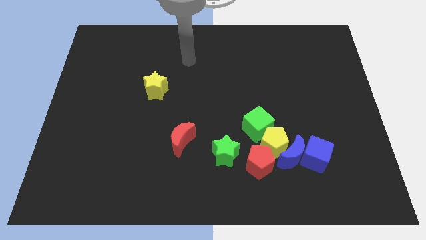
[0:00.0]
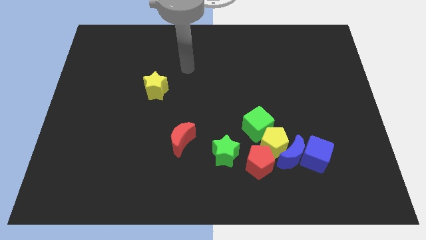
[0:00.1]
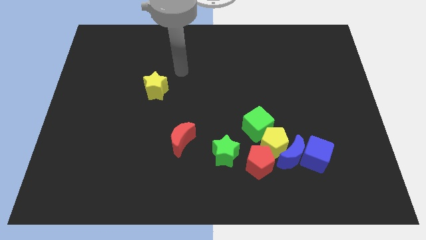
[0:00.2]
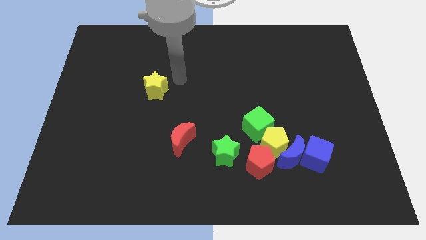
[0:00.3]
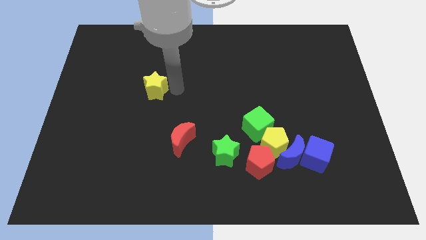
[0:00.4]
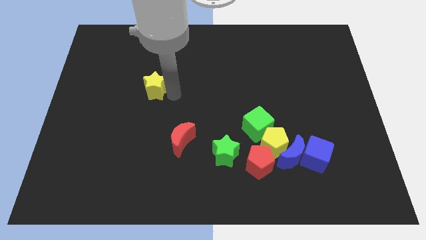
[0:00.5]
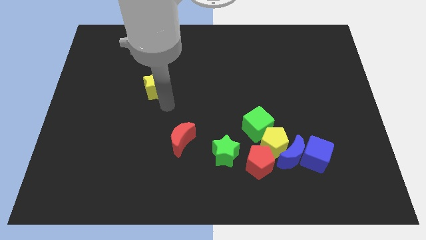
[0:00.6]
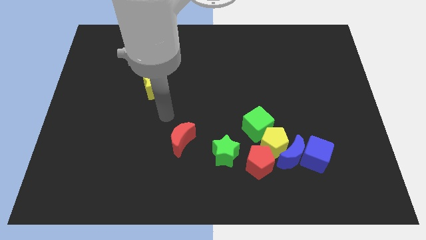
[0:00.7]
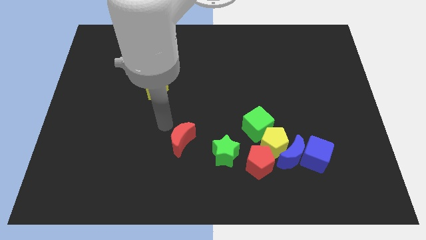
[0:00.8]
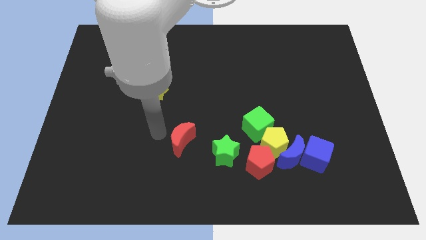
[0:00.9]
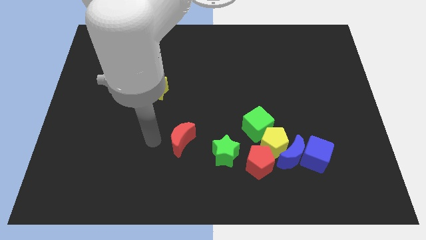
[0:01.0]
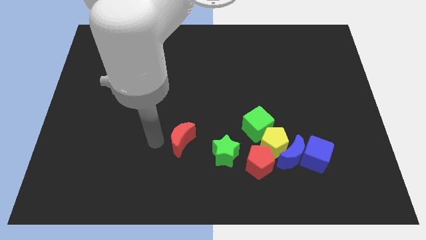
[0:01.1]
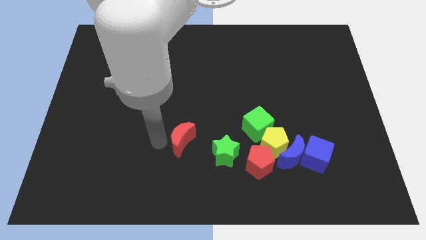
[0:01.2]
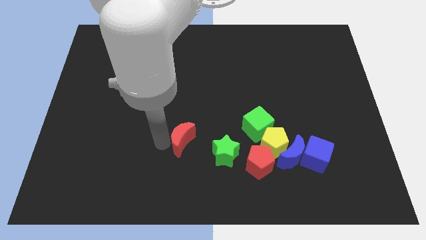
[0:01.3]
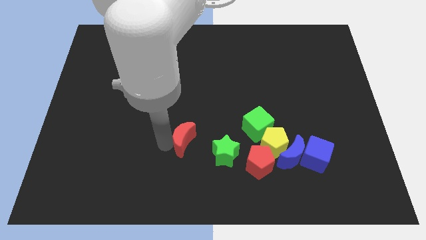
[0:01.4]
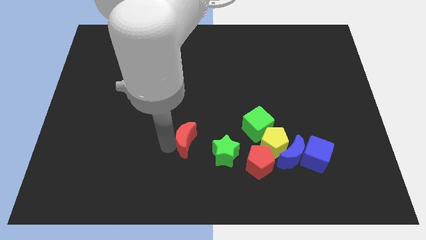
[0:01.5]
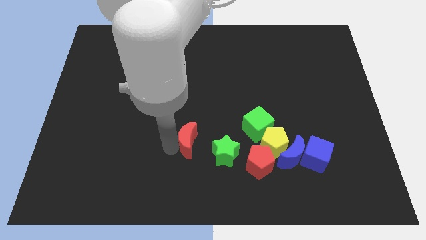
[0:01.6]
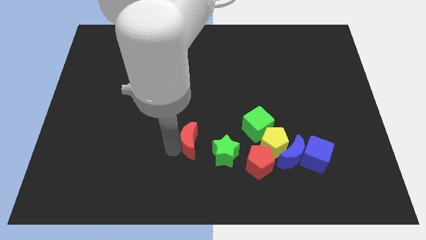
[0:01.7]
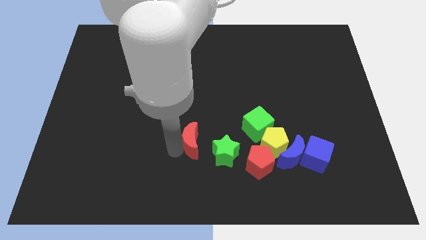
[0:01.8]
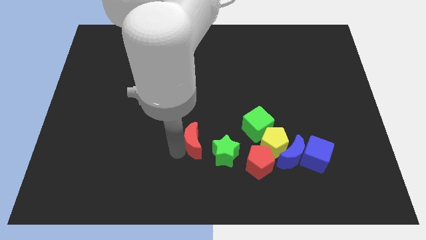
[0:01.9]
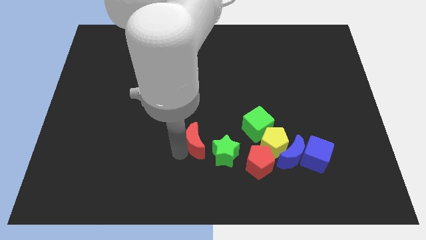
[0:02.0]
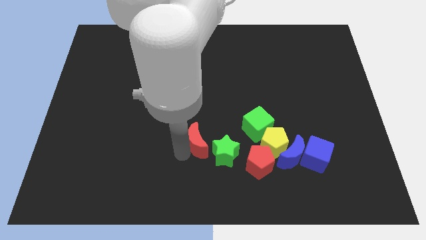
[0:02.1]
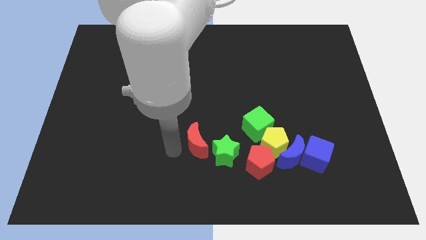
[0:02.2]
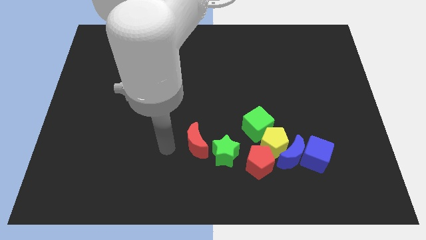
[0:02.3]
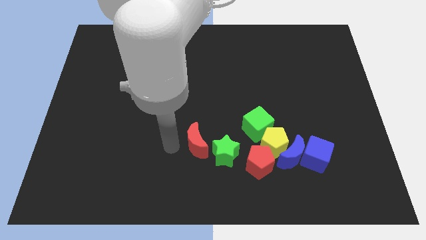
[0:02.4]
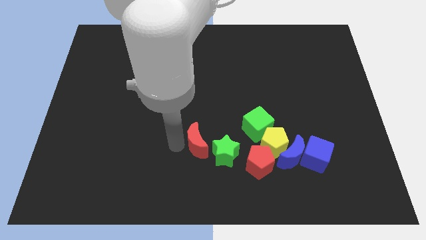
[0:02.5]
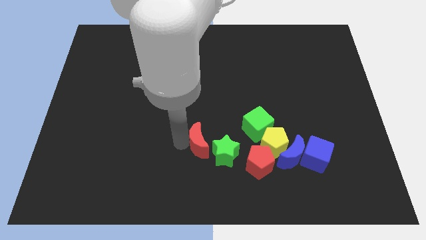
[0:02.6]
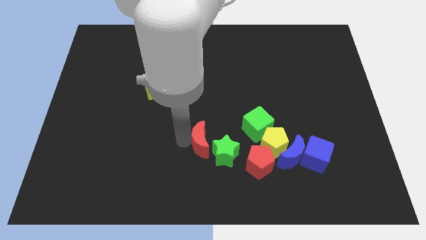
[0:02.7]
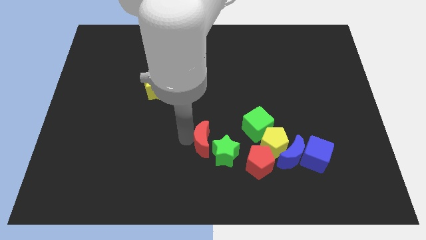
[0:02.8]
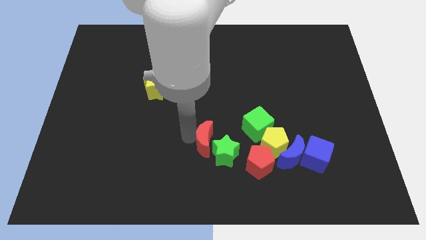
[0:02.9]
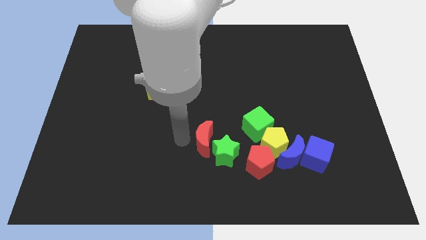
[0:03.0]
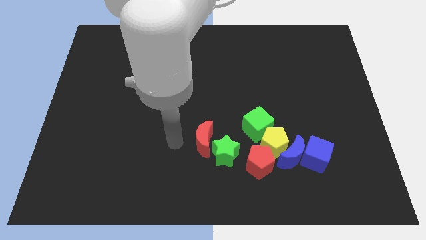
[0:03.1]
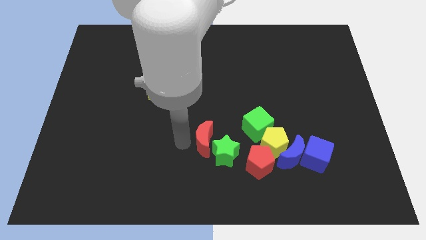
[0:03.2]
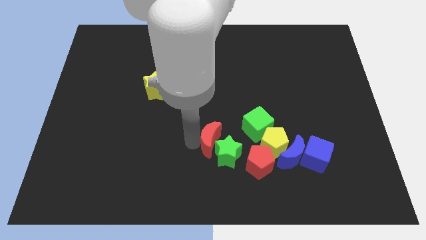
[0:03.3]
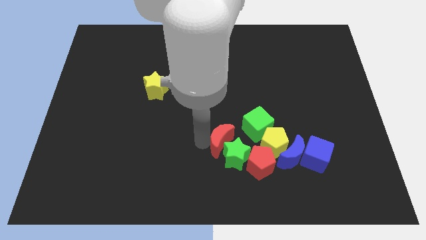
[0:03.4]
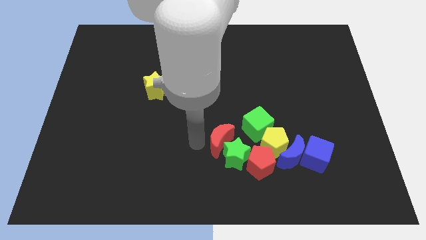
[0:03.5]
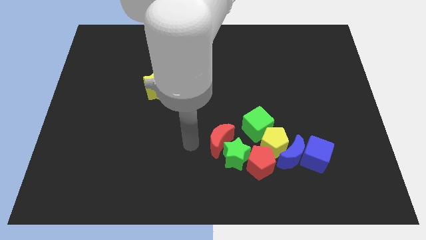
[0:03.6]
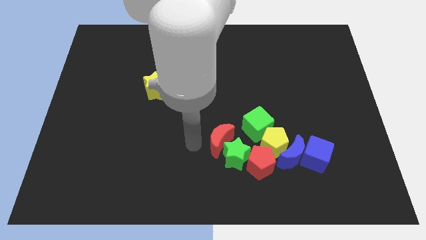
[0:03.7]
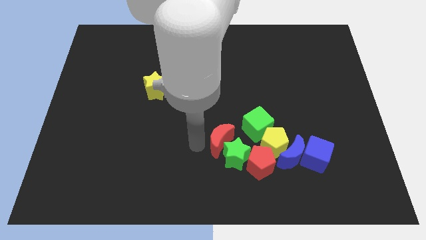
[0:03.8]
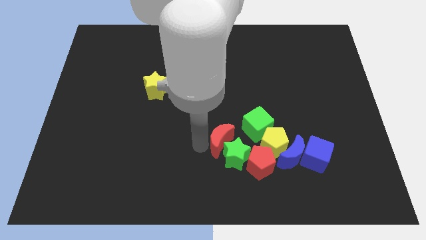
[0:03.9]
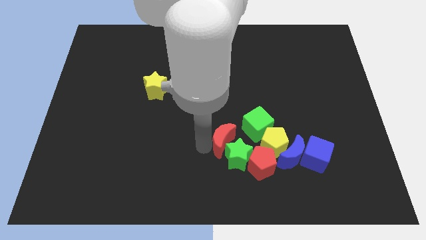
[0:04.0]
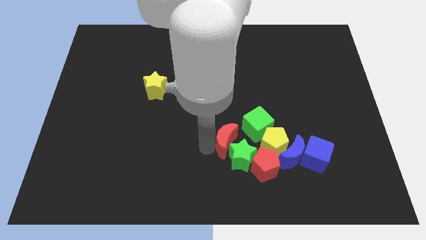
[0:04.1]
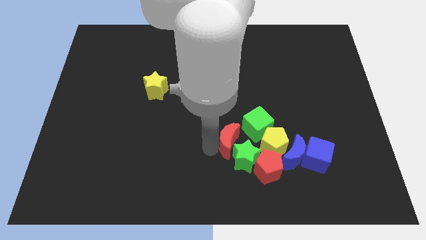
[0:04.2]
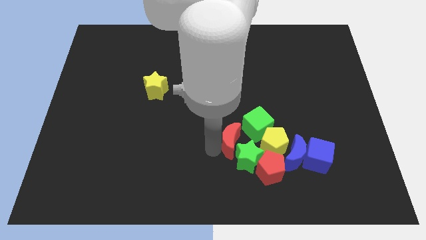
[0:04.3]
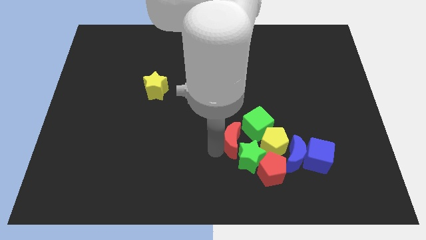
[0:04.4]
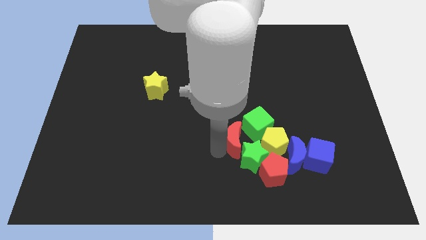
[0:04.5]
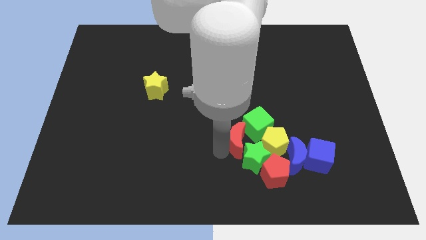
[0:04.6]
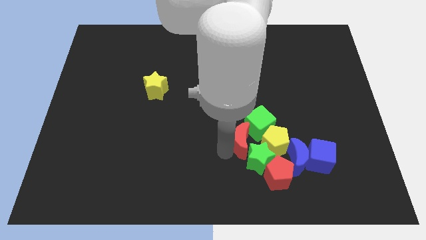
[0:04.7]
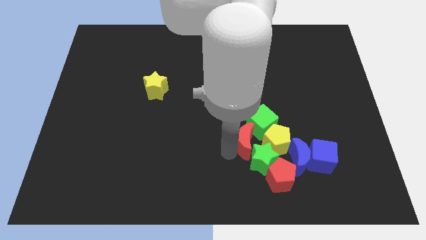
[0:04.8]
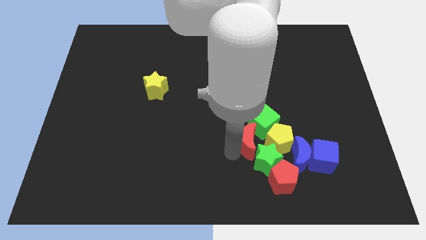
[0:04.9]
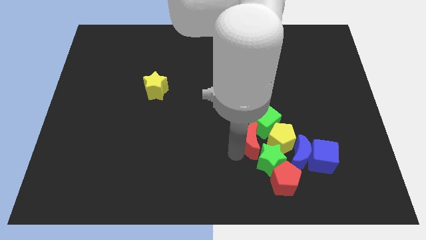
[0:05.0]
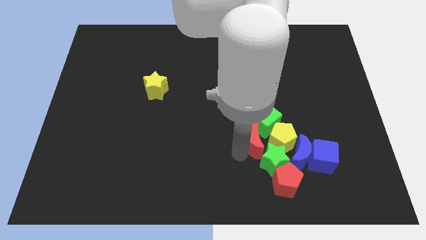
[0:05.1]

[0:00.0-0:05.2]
push the red moon to the yellow pentagon

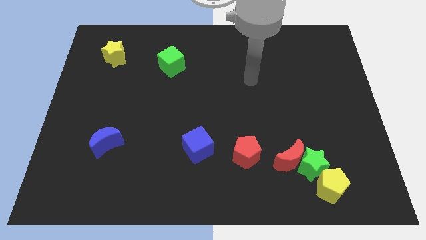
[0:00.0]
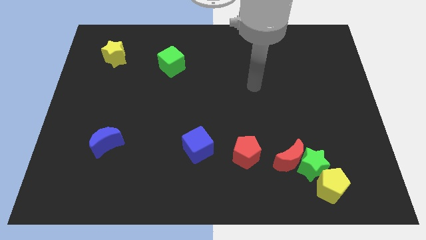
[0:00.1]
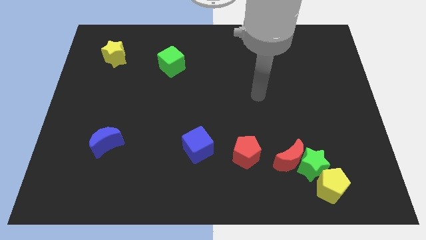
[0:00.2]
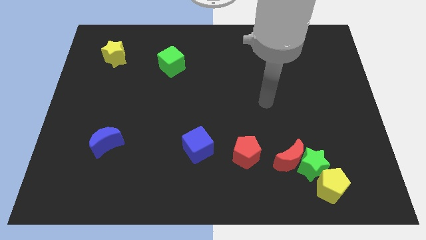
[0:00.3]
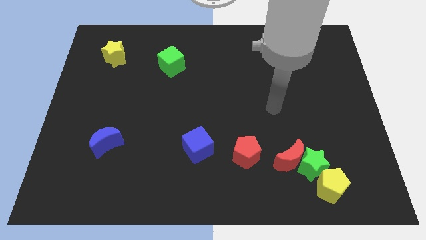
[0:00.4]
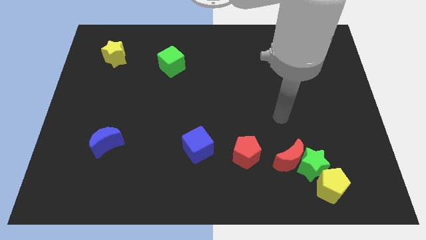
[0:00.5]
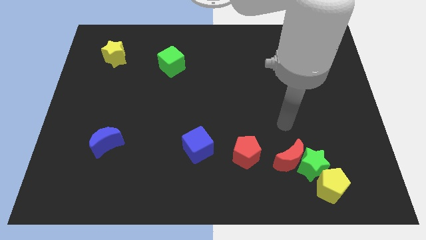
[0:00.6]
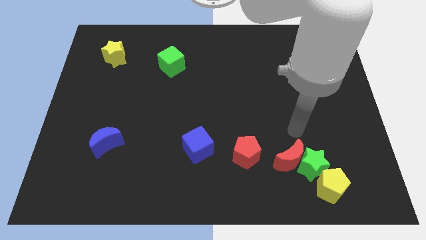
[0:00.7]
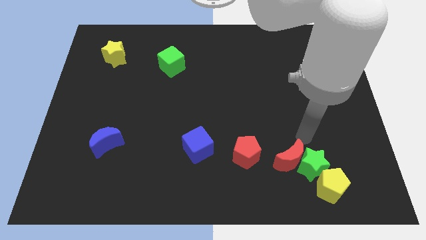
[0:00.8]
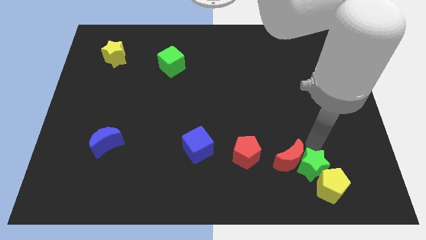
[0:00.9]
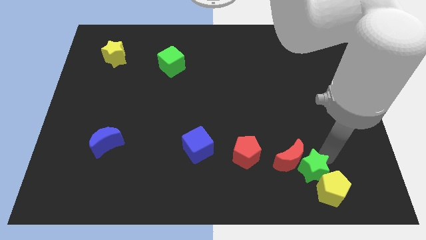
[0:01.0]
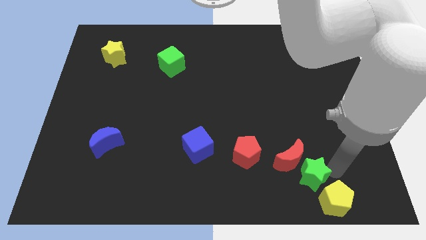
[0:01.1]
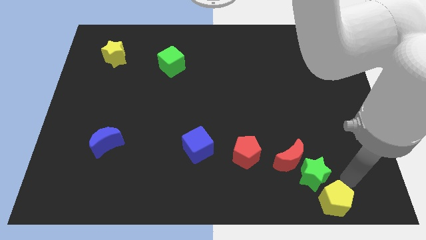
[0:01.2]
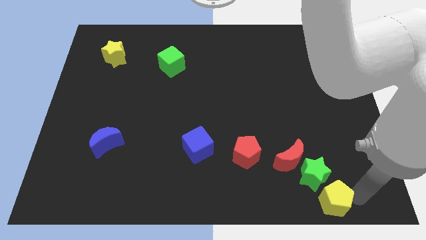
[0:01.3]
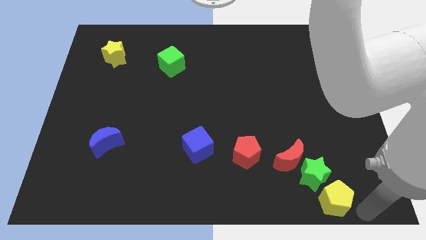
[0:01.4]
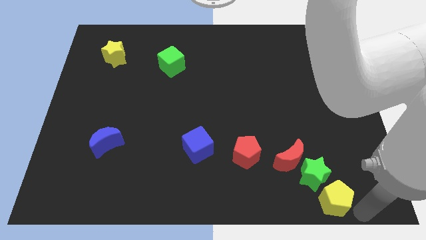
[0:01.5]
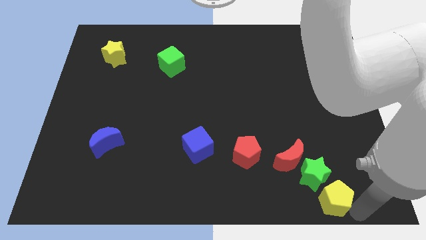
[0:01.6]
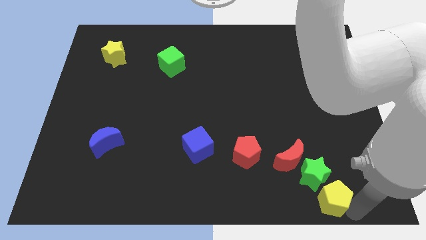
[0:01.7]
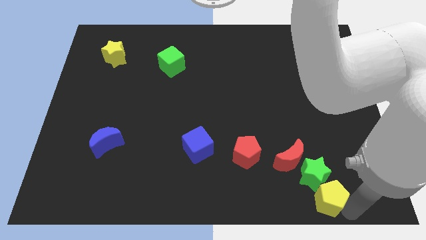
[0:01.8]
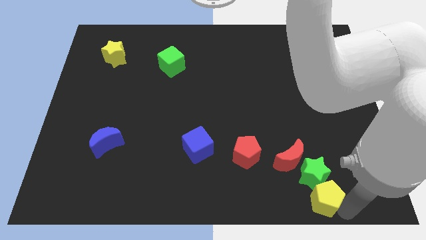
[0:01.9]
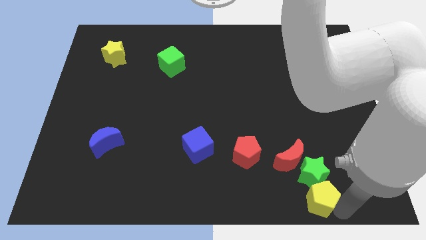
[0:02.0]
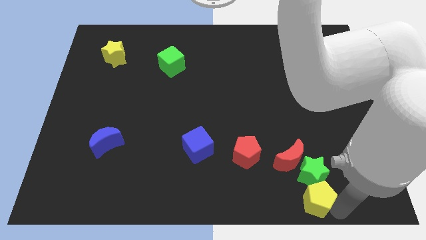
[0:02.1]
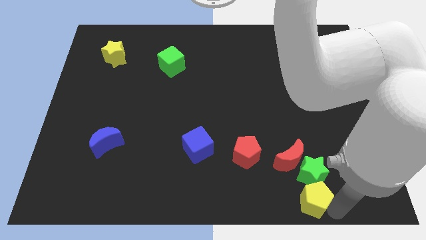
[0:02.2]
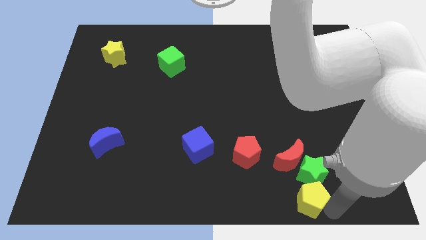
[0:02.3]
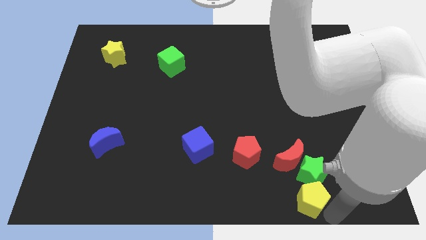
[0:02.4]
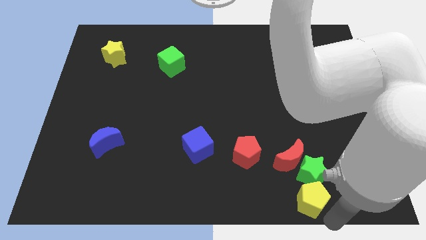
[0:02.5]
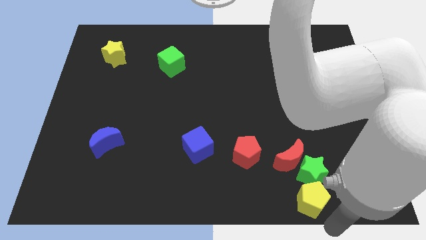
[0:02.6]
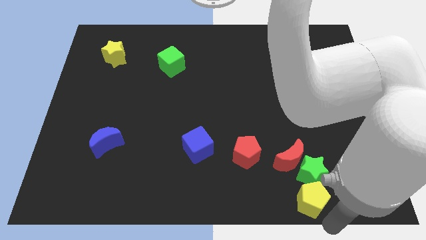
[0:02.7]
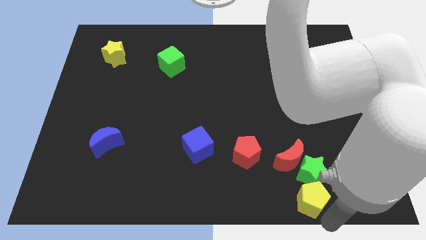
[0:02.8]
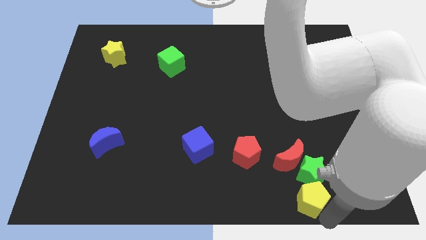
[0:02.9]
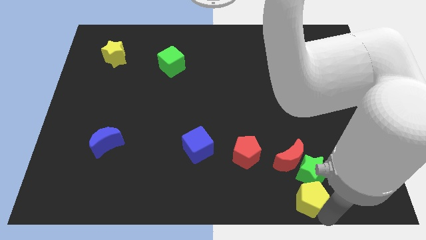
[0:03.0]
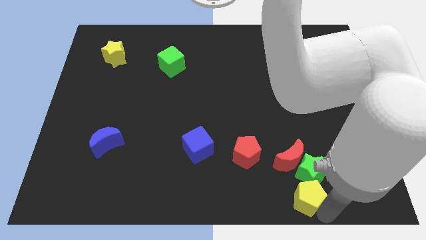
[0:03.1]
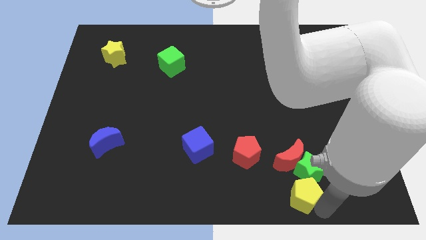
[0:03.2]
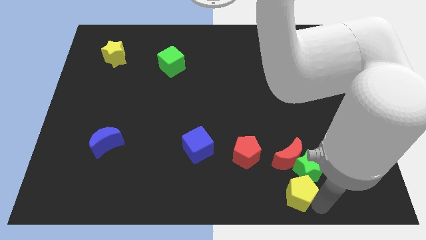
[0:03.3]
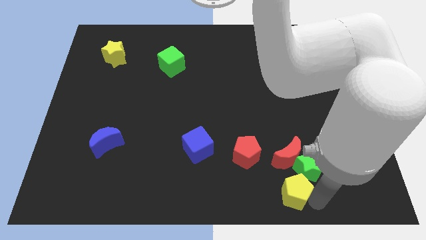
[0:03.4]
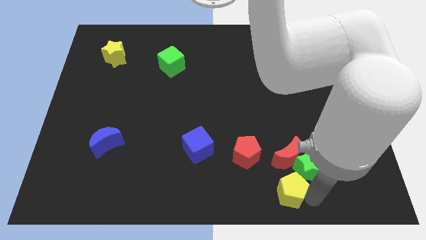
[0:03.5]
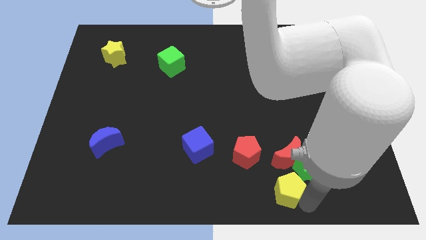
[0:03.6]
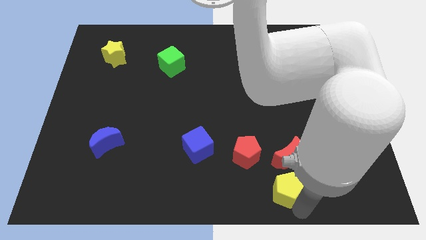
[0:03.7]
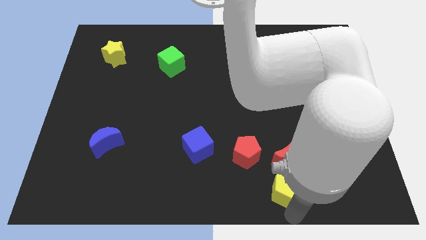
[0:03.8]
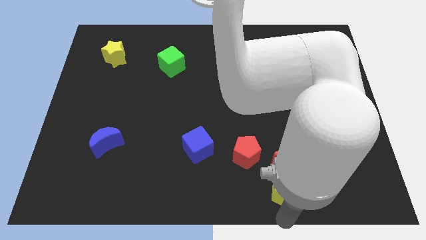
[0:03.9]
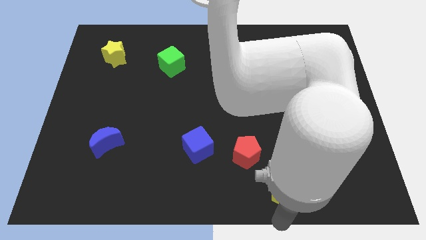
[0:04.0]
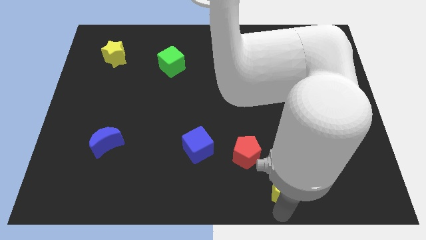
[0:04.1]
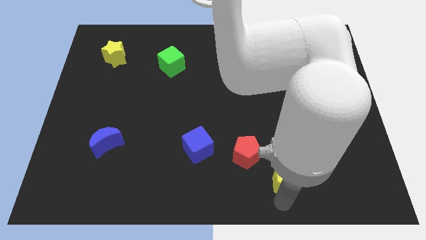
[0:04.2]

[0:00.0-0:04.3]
slide the yellow pentagon to the red moon
